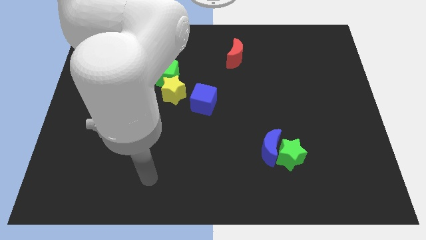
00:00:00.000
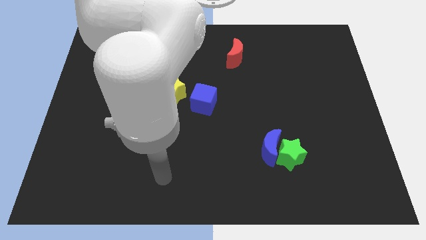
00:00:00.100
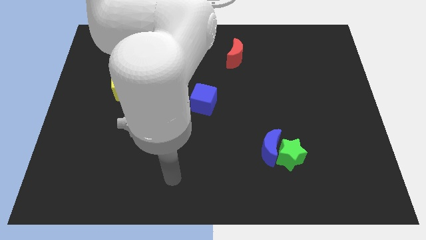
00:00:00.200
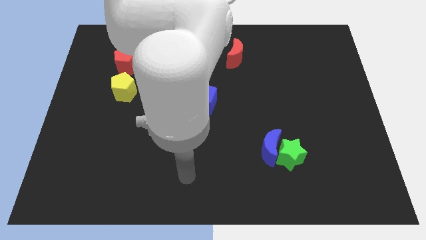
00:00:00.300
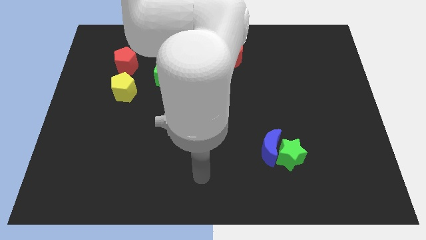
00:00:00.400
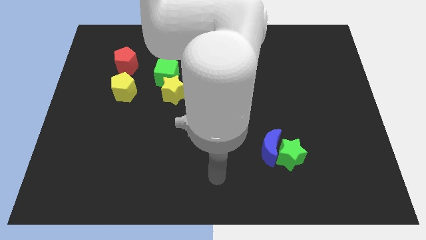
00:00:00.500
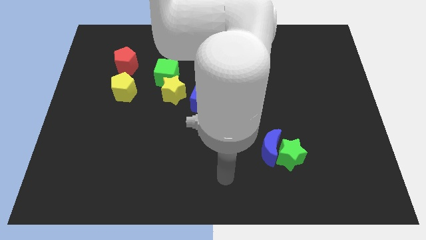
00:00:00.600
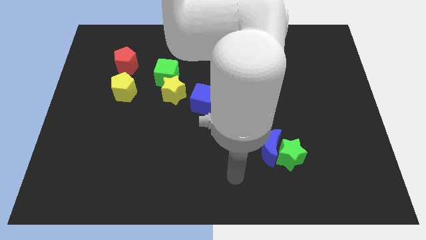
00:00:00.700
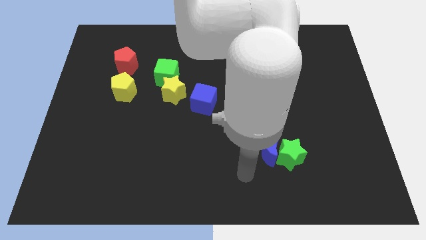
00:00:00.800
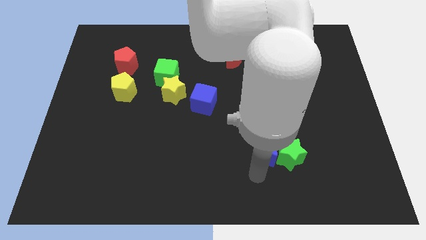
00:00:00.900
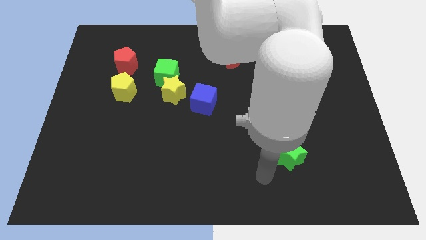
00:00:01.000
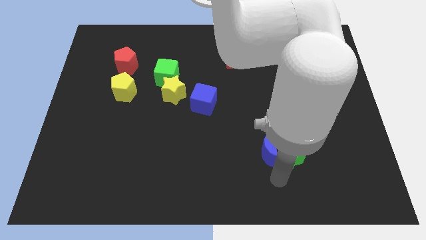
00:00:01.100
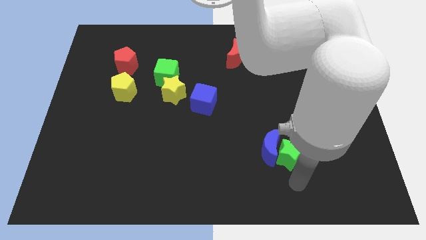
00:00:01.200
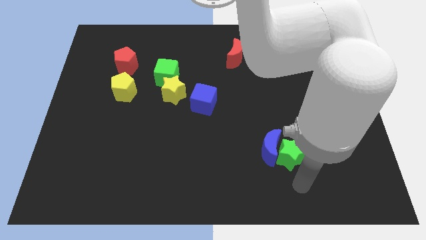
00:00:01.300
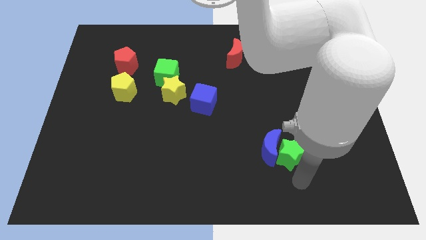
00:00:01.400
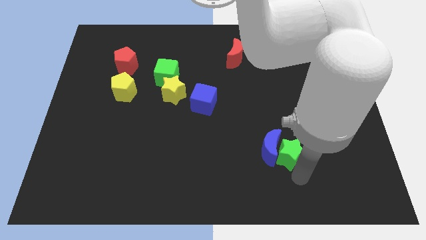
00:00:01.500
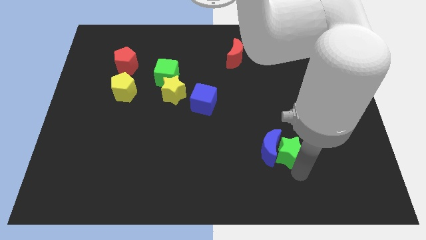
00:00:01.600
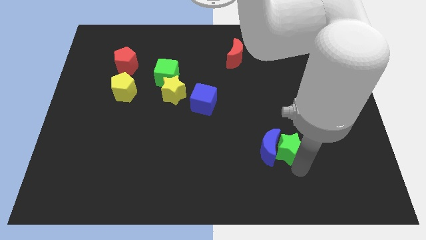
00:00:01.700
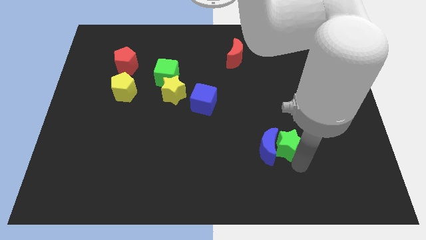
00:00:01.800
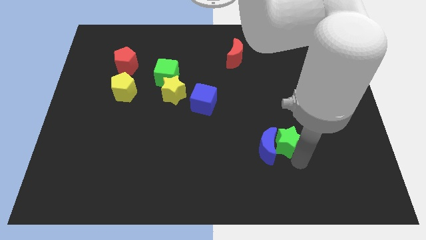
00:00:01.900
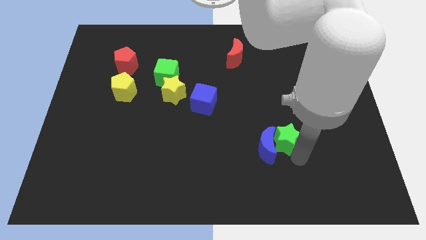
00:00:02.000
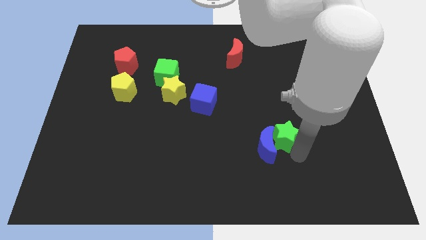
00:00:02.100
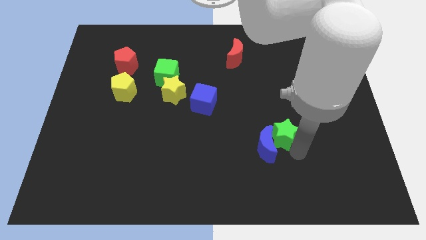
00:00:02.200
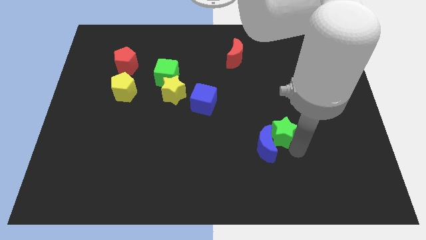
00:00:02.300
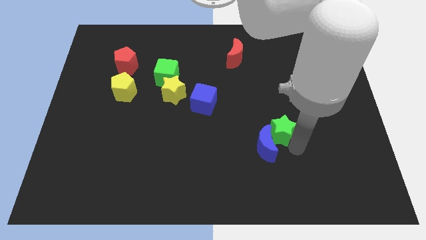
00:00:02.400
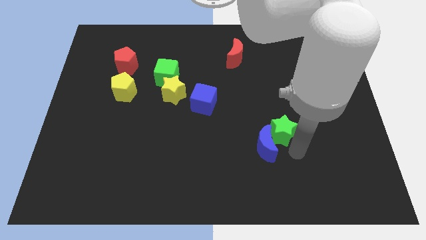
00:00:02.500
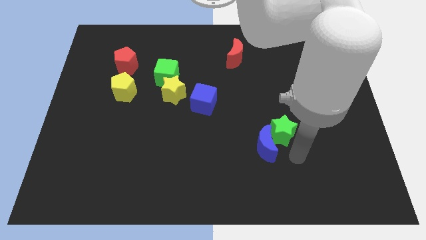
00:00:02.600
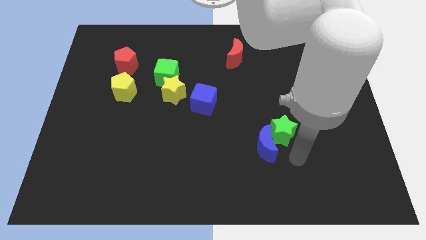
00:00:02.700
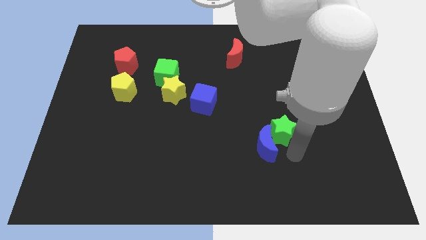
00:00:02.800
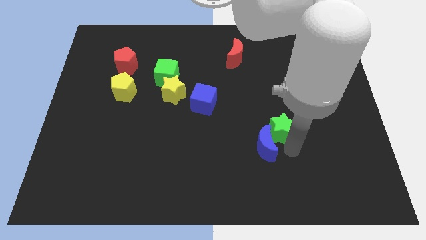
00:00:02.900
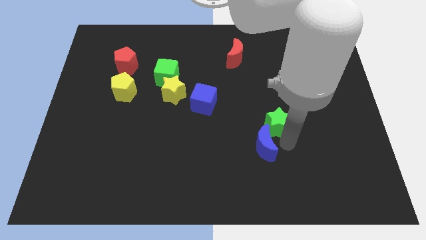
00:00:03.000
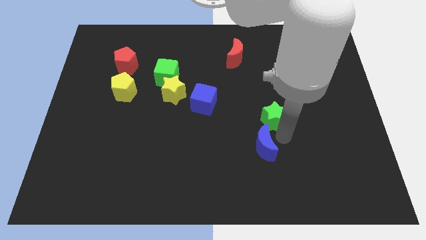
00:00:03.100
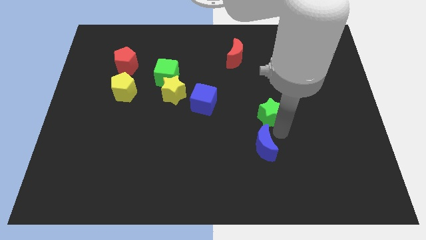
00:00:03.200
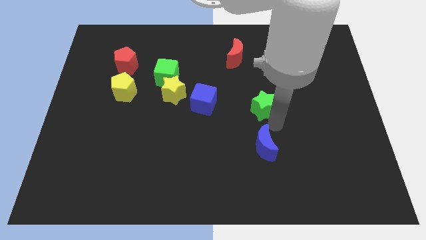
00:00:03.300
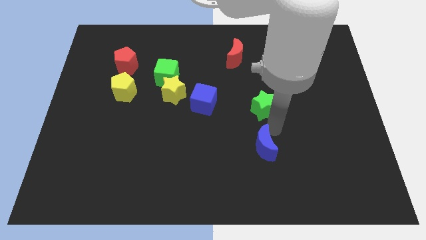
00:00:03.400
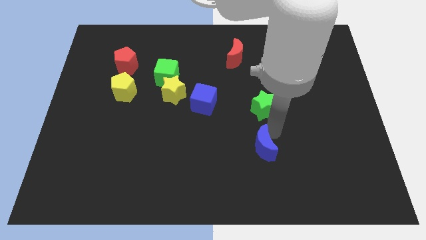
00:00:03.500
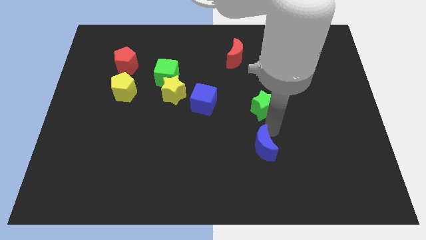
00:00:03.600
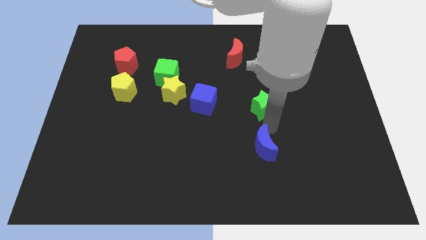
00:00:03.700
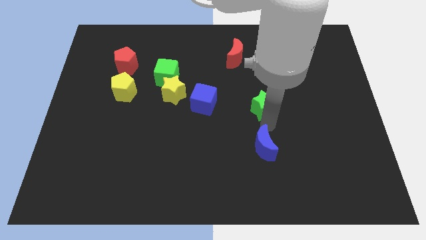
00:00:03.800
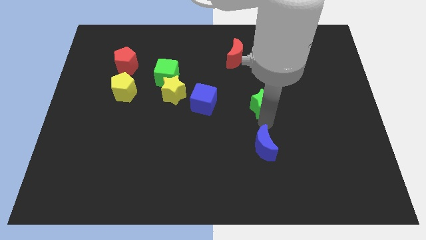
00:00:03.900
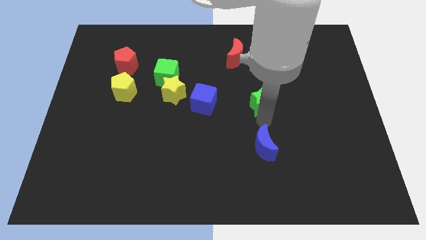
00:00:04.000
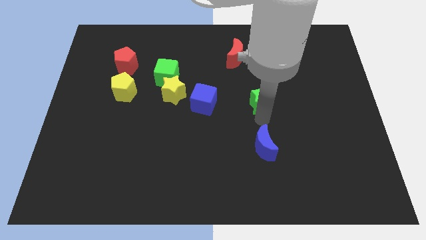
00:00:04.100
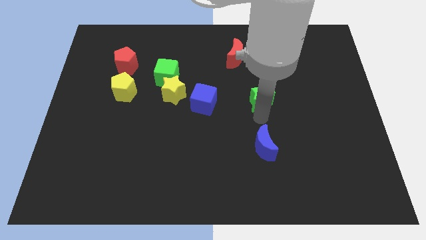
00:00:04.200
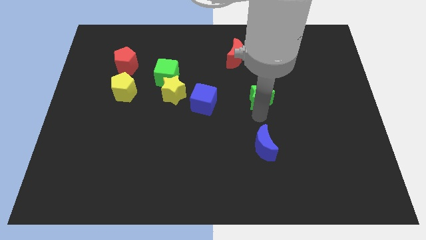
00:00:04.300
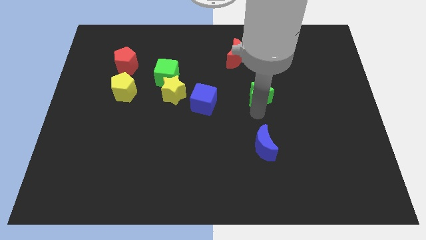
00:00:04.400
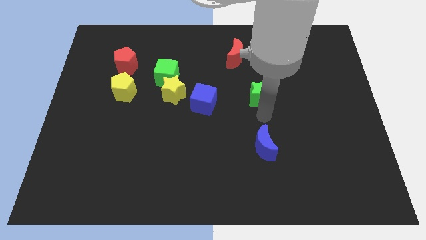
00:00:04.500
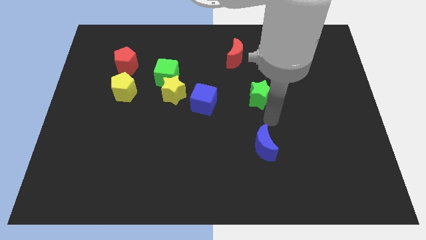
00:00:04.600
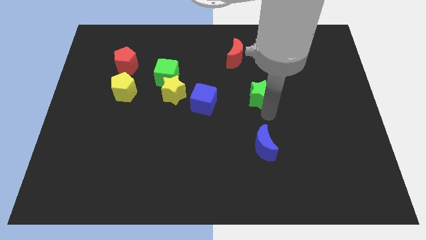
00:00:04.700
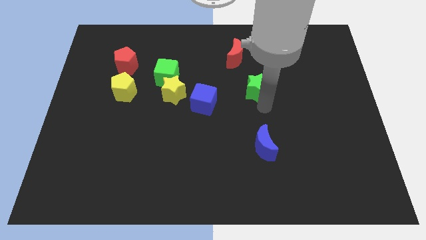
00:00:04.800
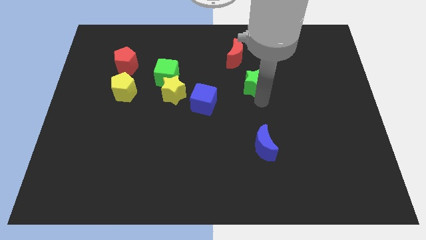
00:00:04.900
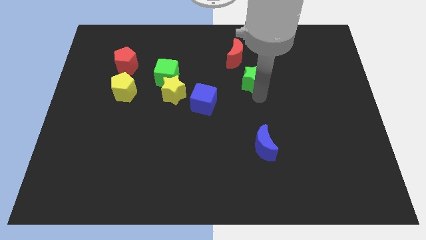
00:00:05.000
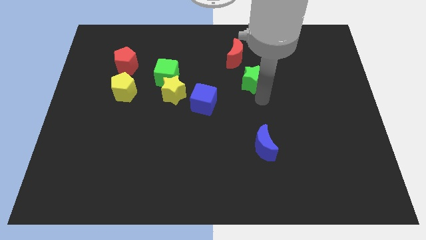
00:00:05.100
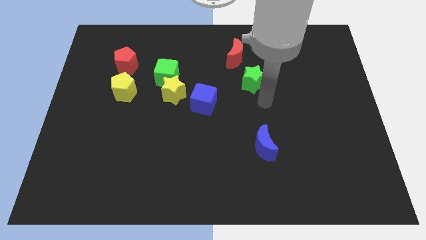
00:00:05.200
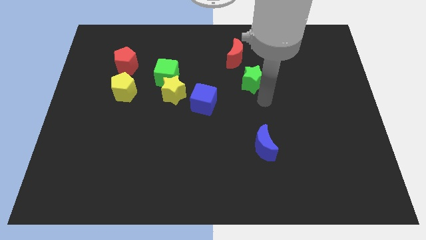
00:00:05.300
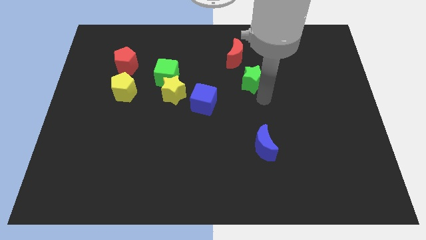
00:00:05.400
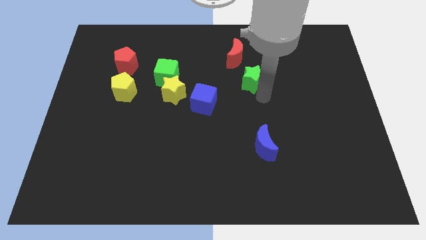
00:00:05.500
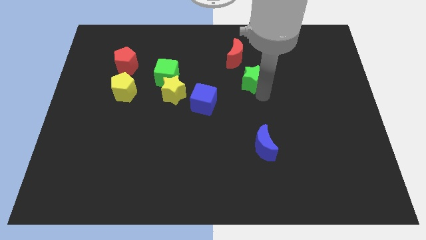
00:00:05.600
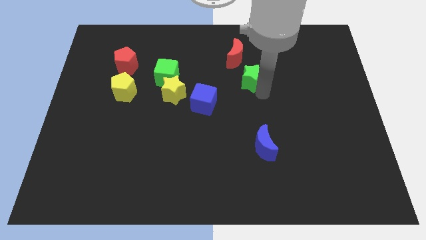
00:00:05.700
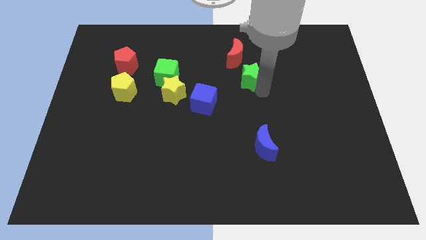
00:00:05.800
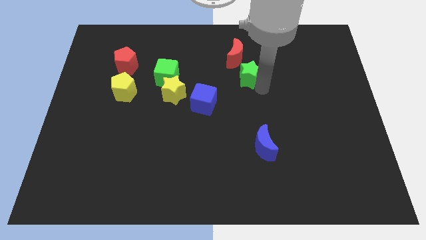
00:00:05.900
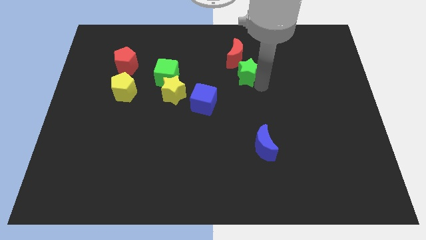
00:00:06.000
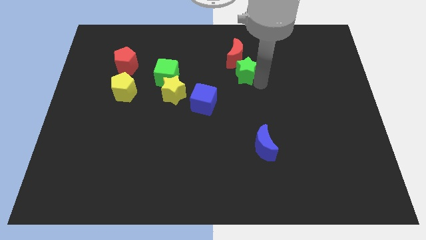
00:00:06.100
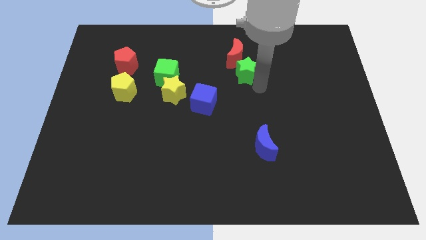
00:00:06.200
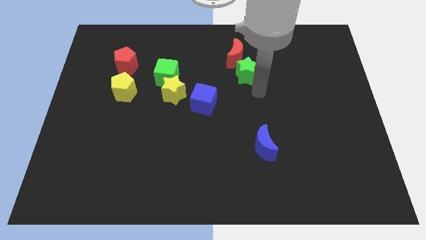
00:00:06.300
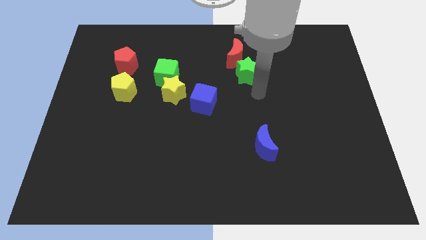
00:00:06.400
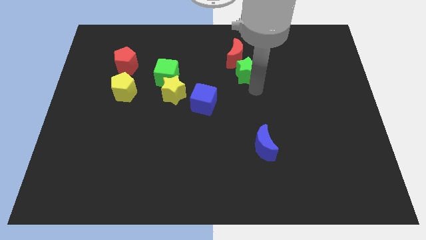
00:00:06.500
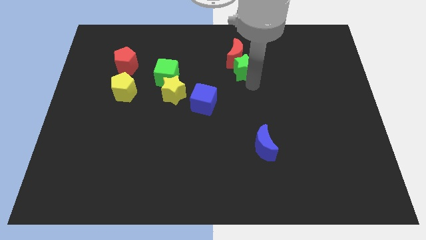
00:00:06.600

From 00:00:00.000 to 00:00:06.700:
move the green star towards the red moon
